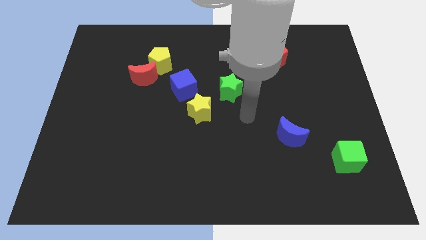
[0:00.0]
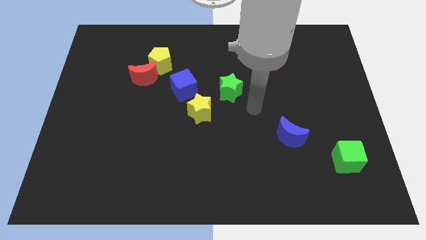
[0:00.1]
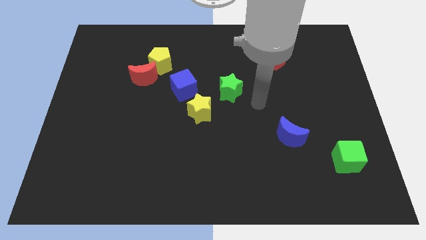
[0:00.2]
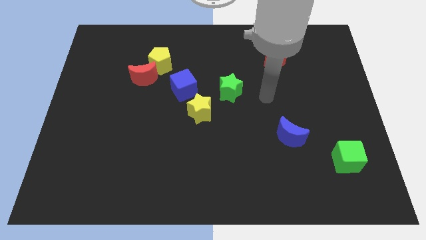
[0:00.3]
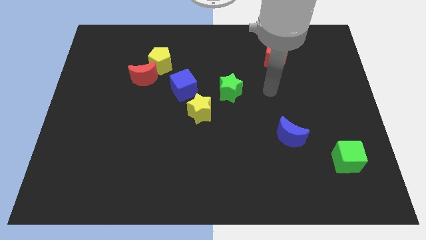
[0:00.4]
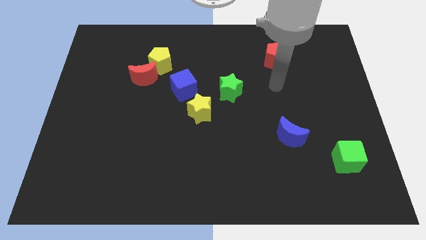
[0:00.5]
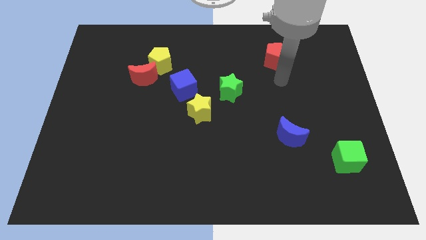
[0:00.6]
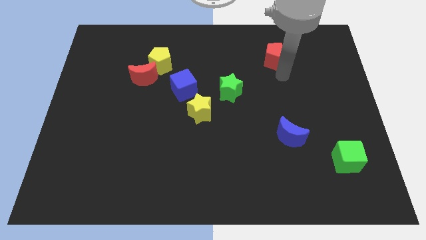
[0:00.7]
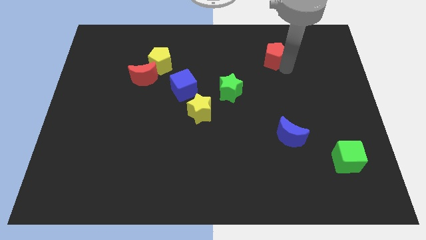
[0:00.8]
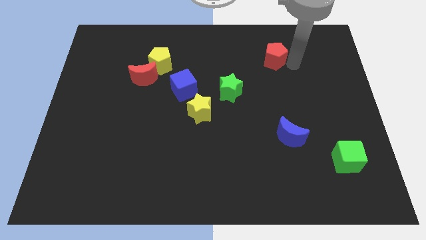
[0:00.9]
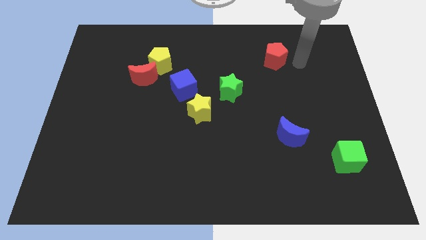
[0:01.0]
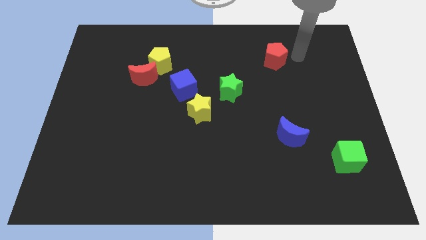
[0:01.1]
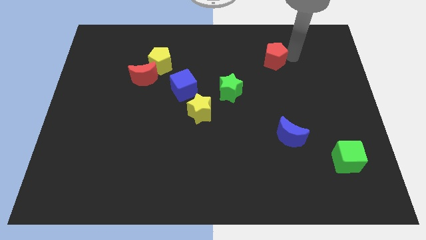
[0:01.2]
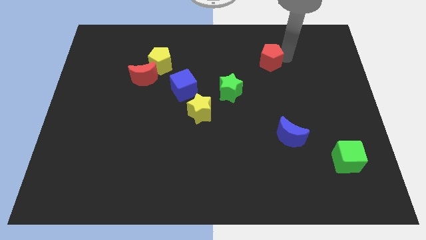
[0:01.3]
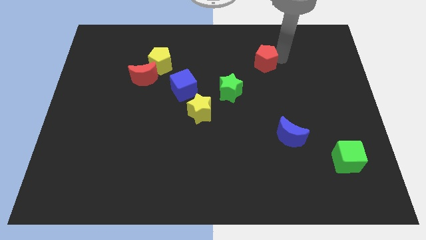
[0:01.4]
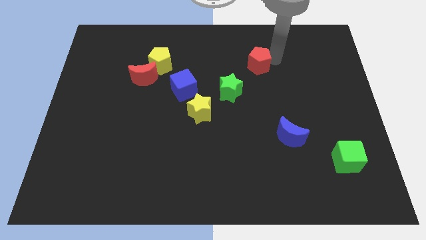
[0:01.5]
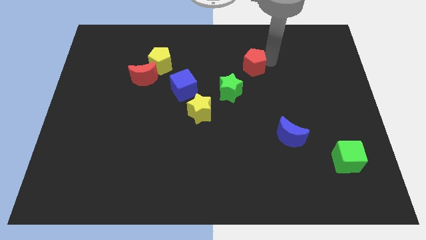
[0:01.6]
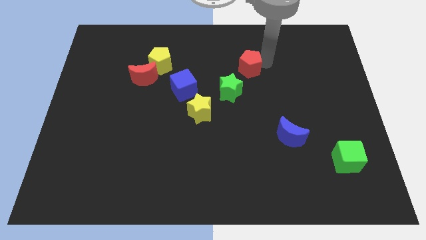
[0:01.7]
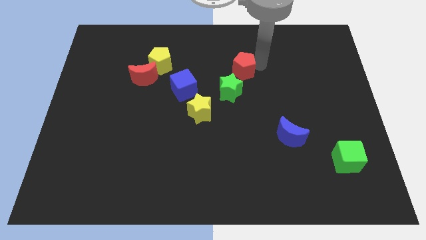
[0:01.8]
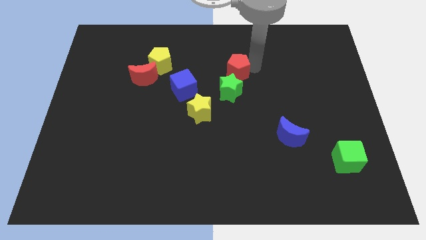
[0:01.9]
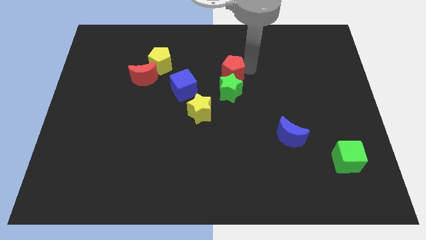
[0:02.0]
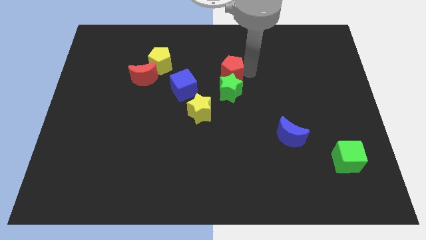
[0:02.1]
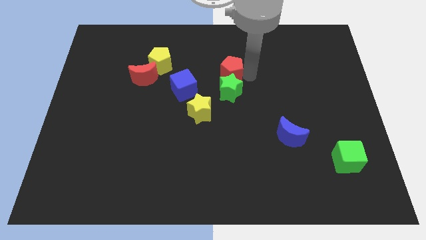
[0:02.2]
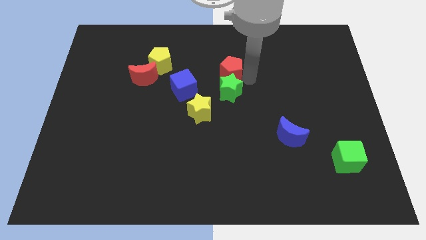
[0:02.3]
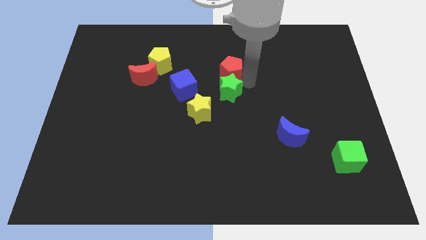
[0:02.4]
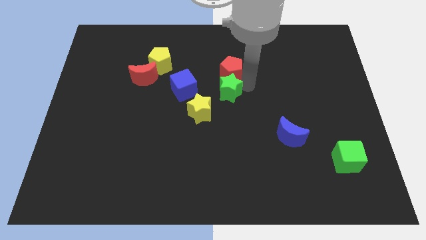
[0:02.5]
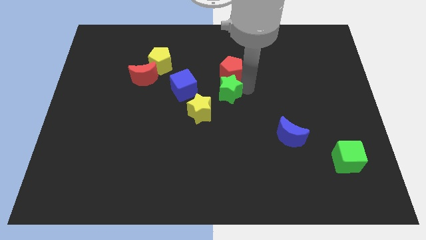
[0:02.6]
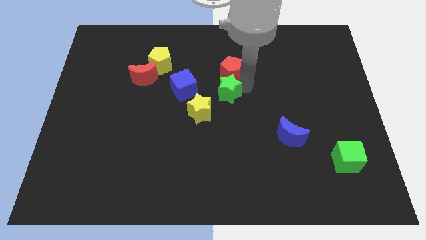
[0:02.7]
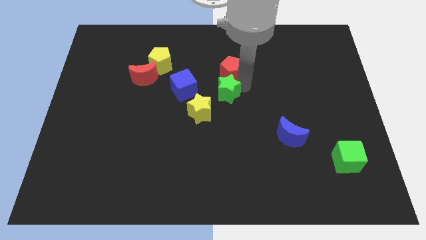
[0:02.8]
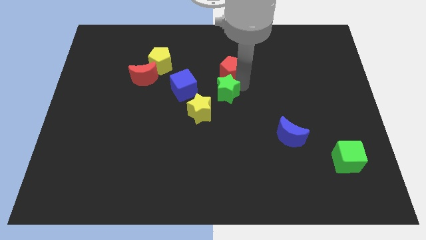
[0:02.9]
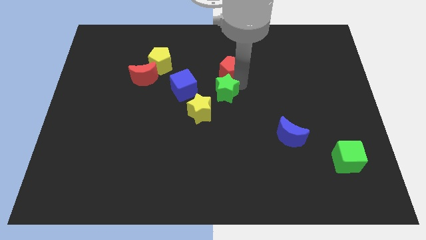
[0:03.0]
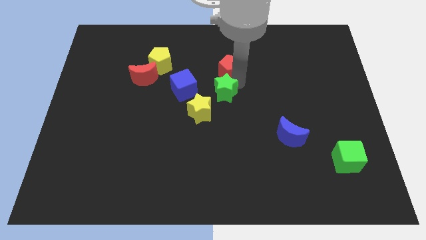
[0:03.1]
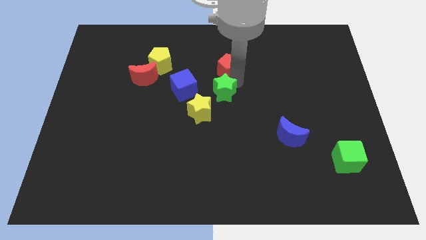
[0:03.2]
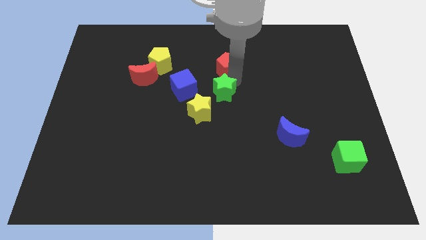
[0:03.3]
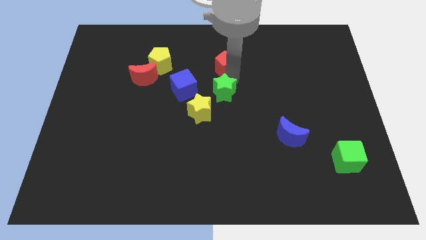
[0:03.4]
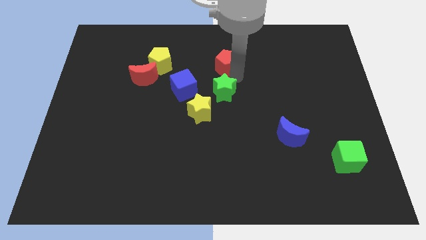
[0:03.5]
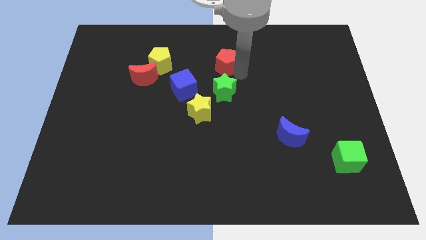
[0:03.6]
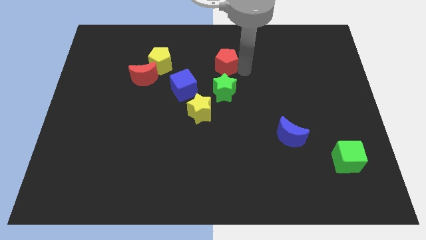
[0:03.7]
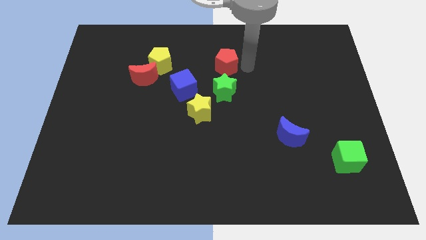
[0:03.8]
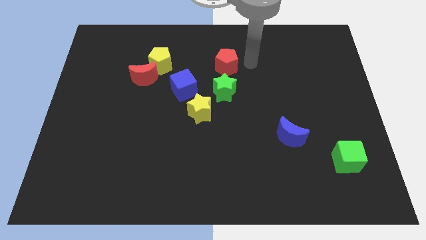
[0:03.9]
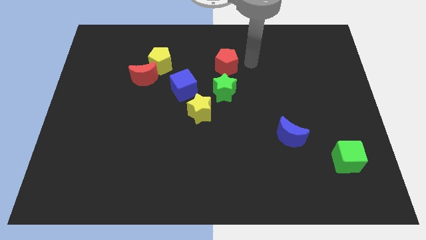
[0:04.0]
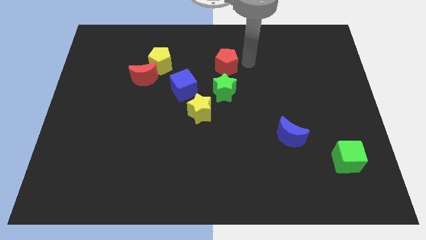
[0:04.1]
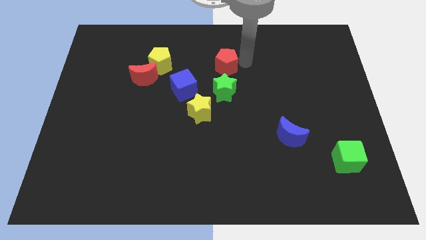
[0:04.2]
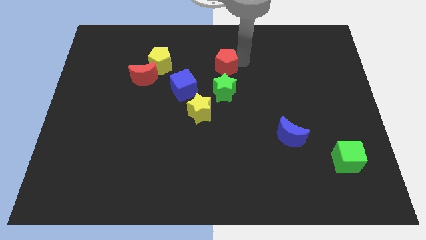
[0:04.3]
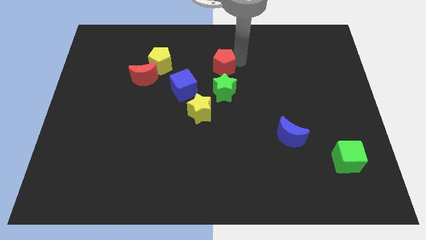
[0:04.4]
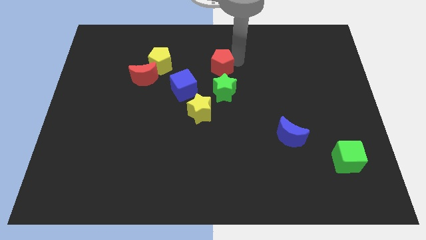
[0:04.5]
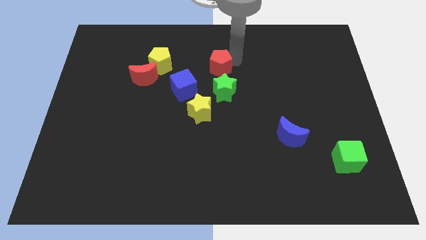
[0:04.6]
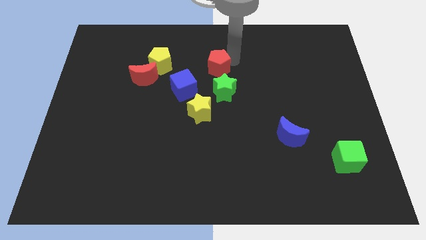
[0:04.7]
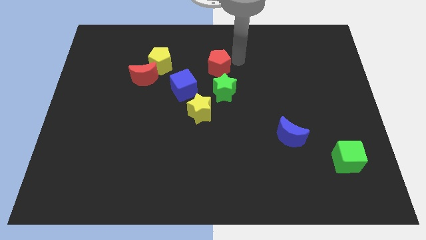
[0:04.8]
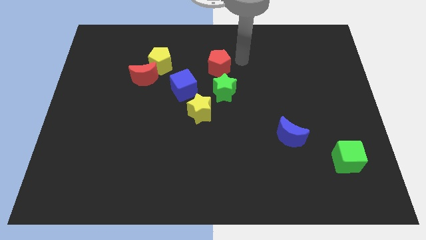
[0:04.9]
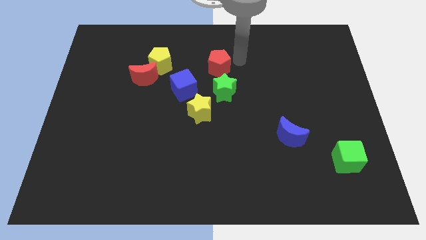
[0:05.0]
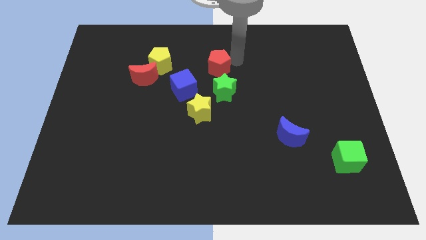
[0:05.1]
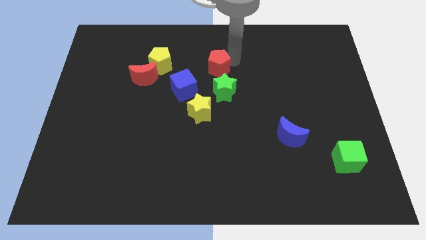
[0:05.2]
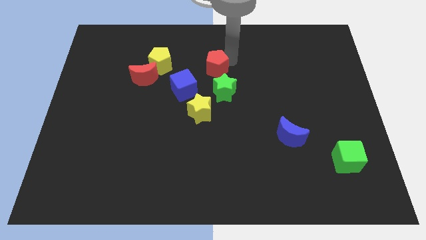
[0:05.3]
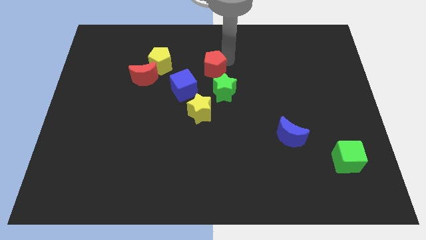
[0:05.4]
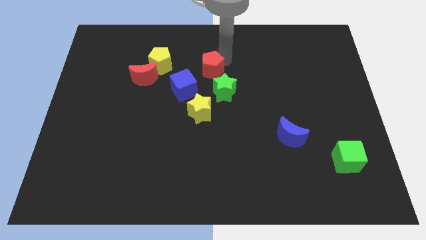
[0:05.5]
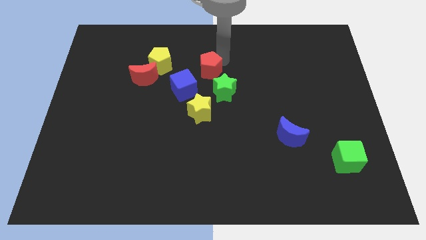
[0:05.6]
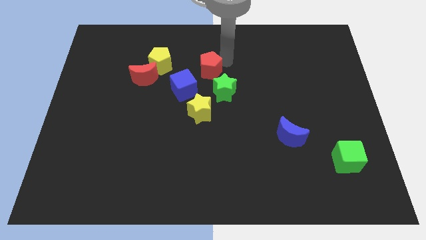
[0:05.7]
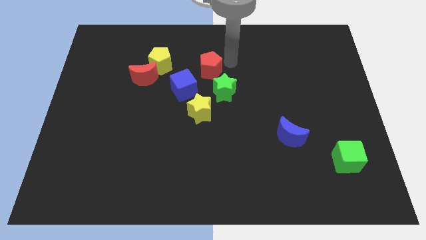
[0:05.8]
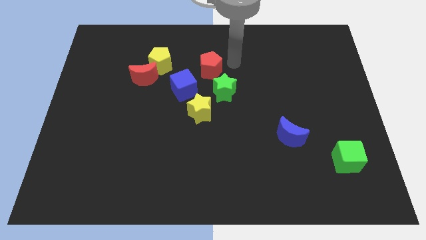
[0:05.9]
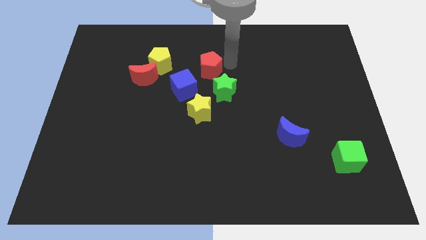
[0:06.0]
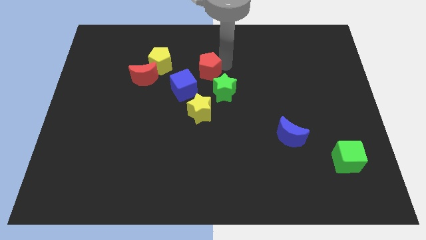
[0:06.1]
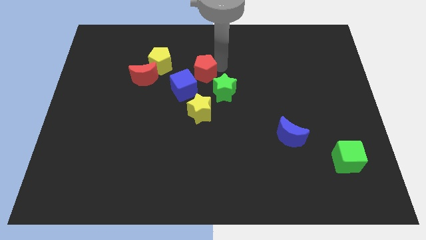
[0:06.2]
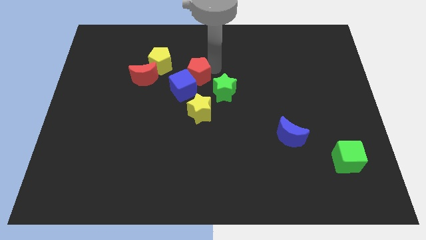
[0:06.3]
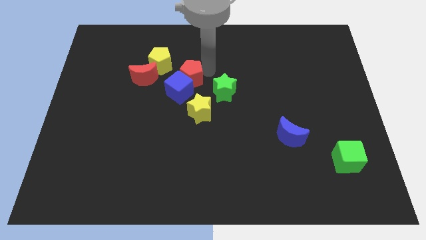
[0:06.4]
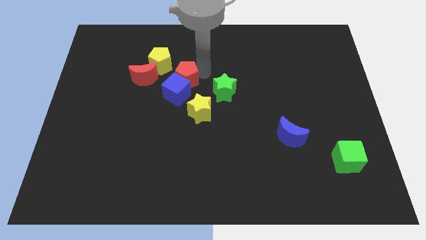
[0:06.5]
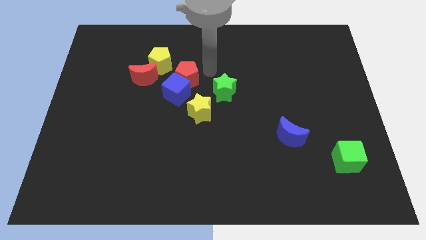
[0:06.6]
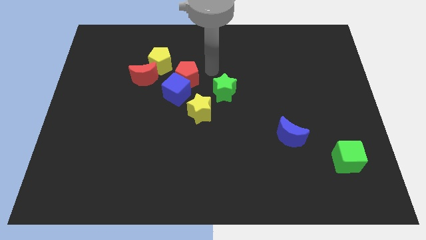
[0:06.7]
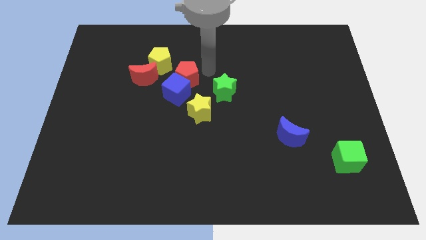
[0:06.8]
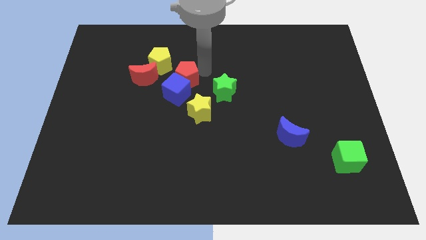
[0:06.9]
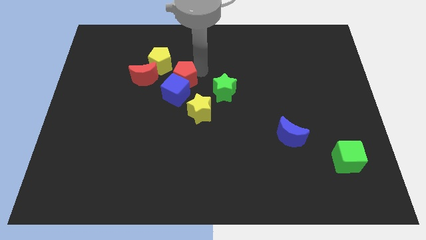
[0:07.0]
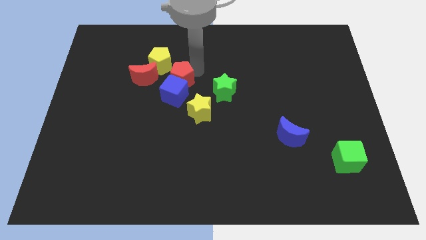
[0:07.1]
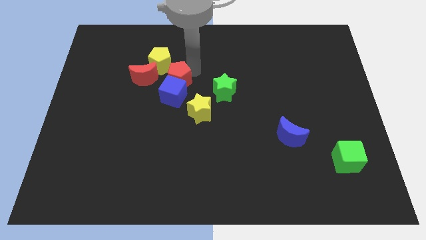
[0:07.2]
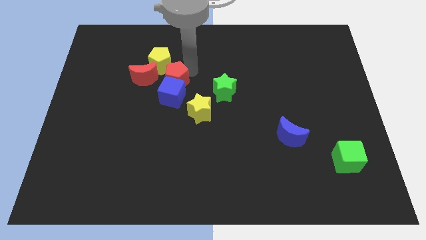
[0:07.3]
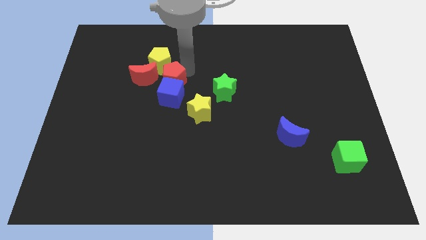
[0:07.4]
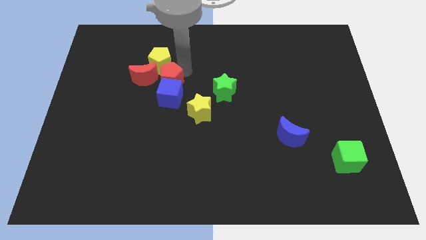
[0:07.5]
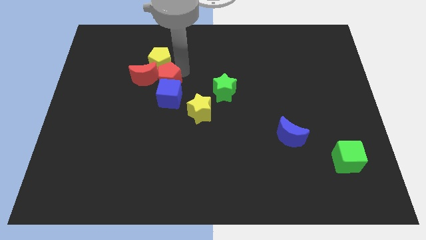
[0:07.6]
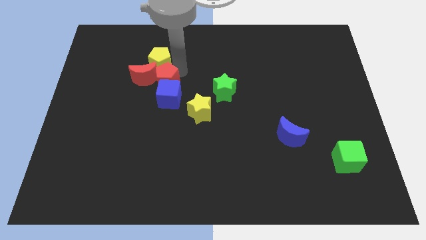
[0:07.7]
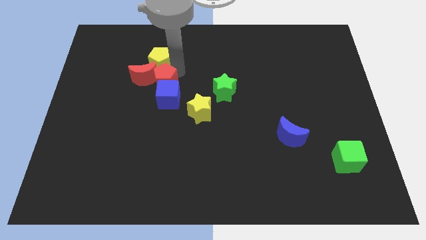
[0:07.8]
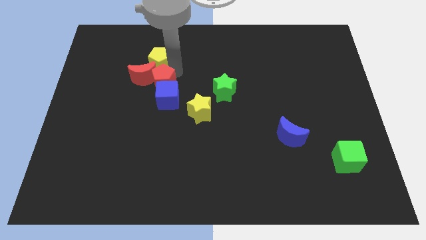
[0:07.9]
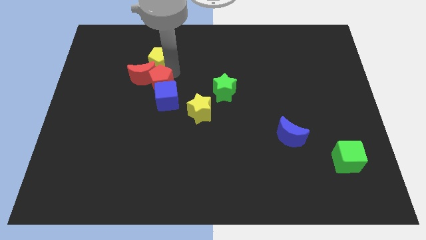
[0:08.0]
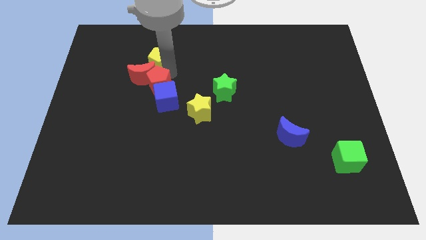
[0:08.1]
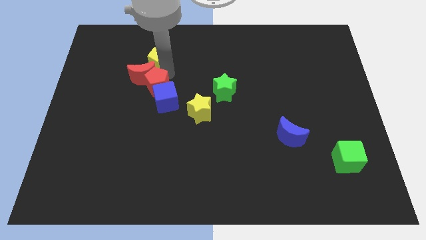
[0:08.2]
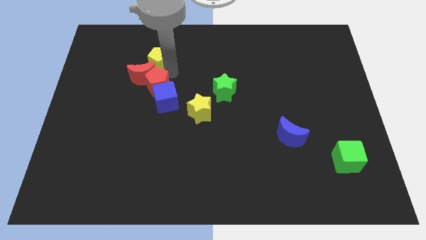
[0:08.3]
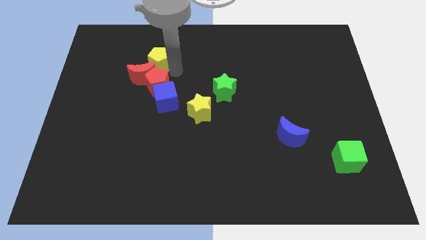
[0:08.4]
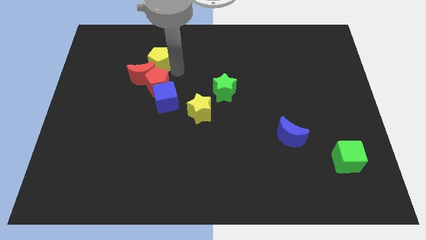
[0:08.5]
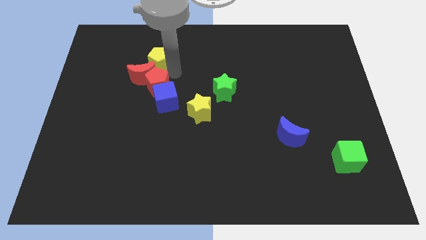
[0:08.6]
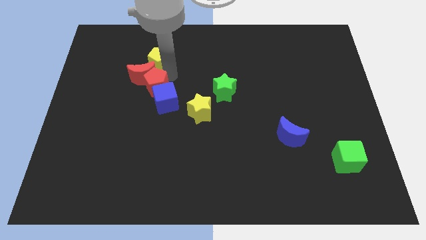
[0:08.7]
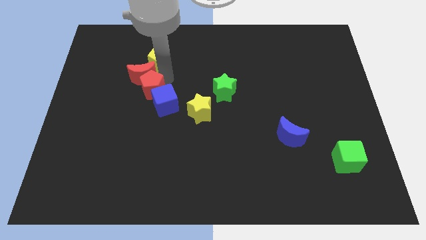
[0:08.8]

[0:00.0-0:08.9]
put the red pentagon to the left of the blue cube
